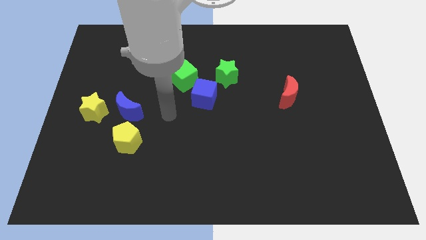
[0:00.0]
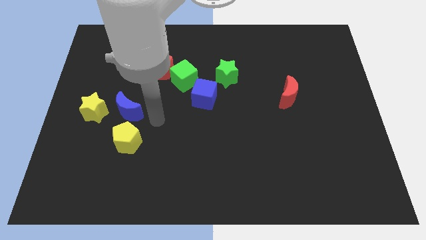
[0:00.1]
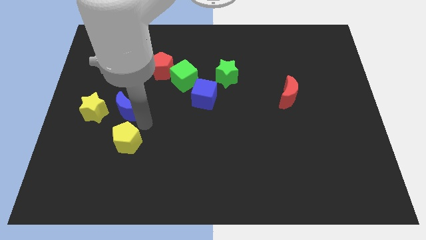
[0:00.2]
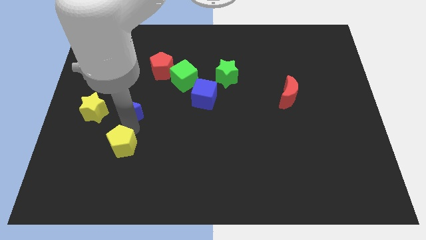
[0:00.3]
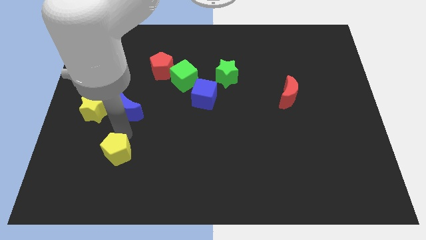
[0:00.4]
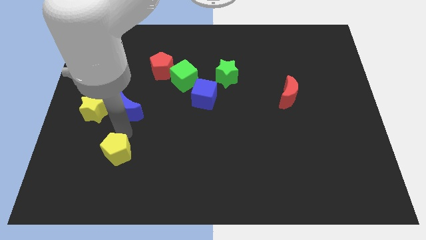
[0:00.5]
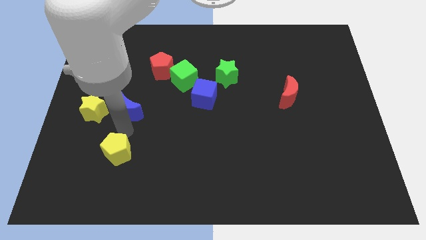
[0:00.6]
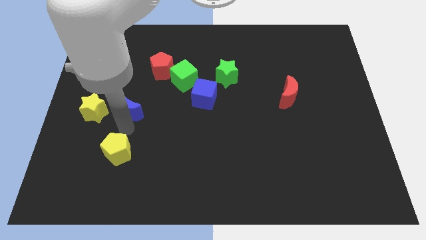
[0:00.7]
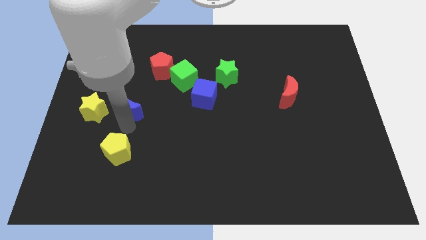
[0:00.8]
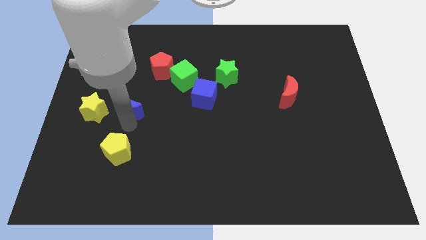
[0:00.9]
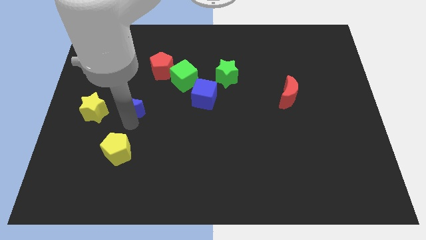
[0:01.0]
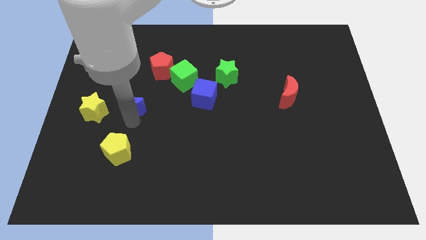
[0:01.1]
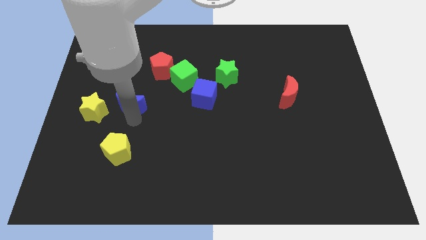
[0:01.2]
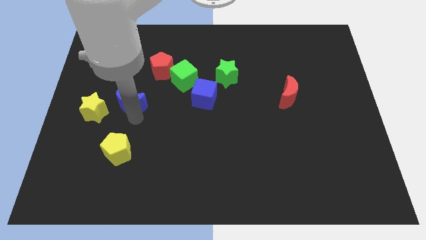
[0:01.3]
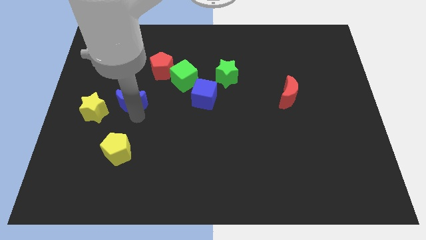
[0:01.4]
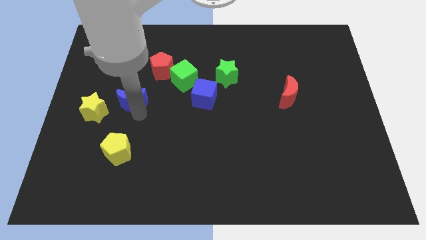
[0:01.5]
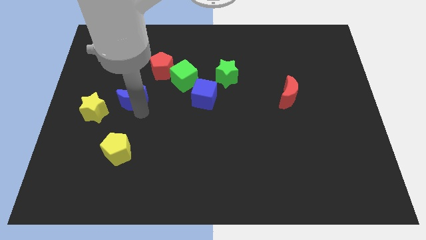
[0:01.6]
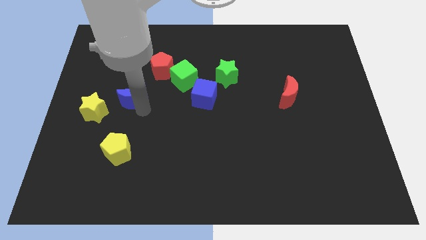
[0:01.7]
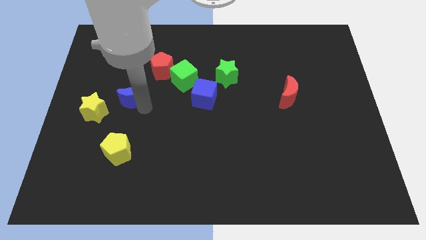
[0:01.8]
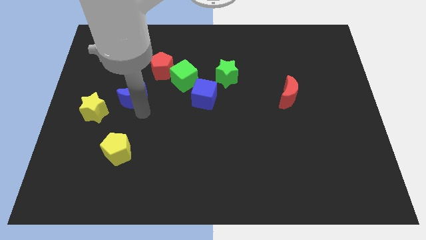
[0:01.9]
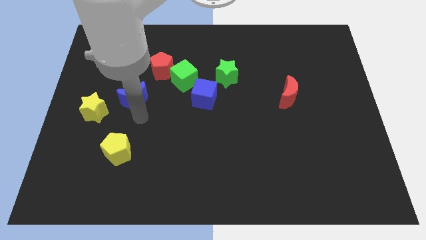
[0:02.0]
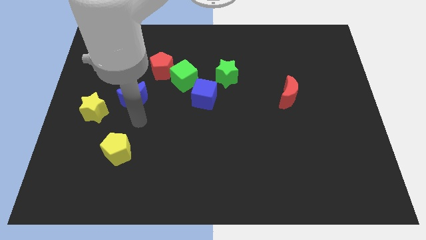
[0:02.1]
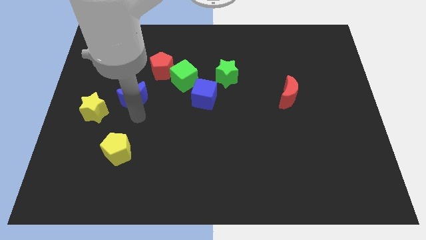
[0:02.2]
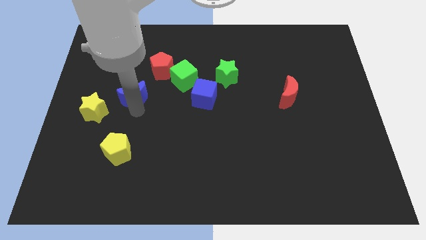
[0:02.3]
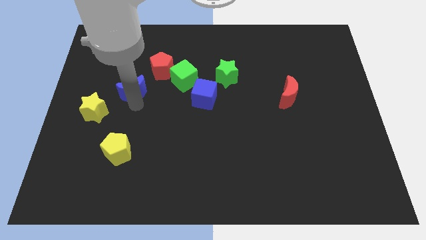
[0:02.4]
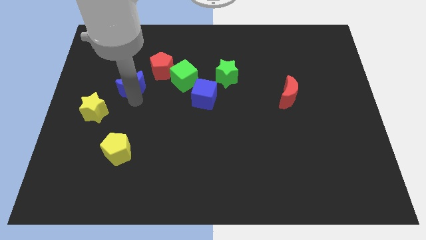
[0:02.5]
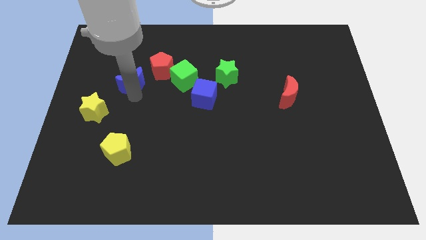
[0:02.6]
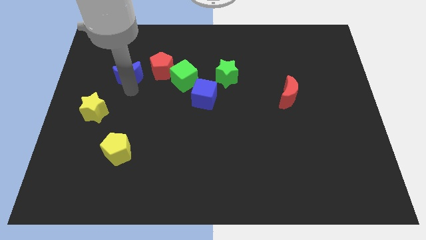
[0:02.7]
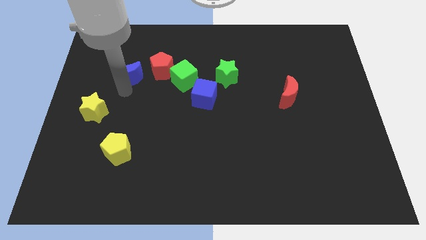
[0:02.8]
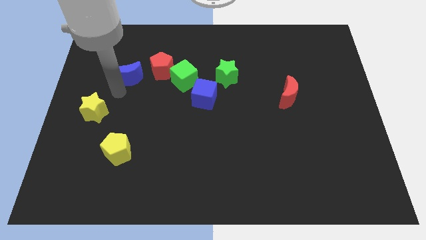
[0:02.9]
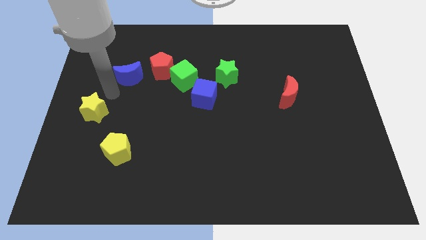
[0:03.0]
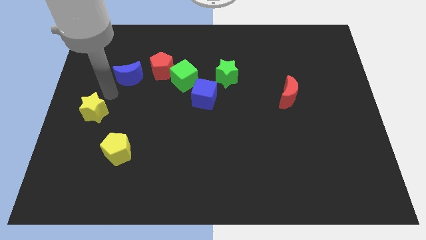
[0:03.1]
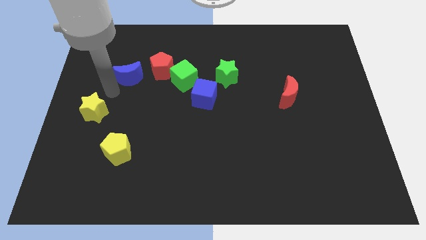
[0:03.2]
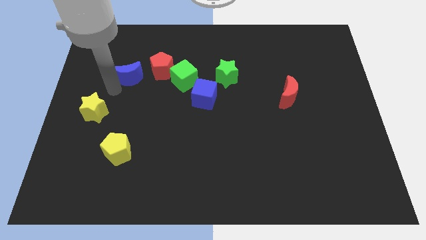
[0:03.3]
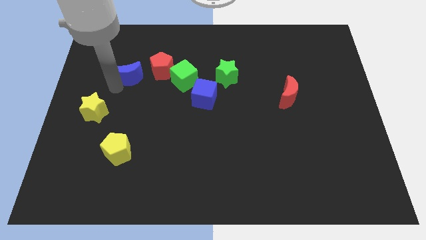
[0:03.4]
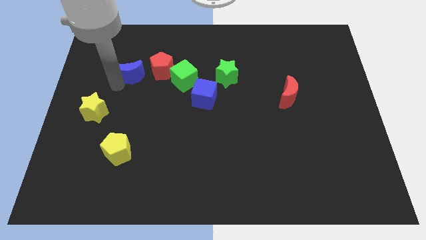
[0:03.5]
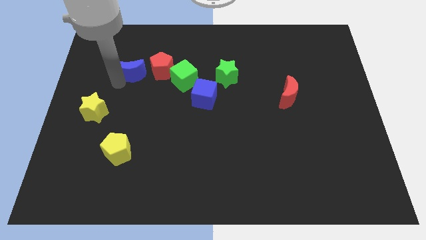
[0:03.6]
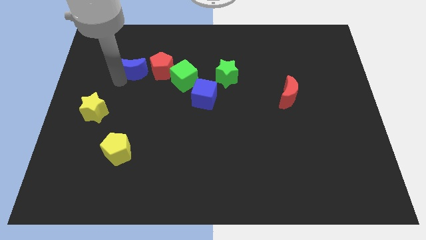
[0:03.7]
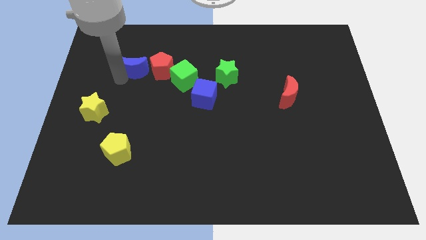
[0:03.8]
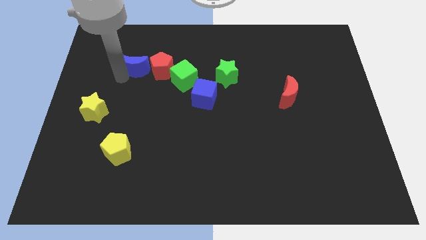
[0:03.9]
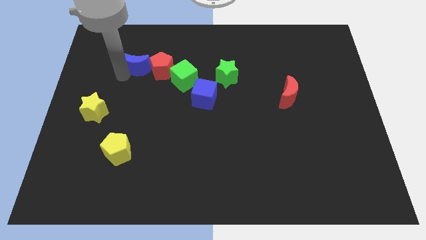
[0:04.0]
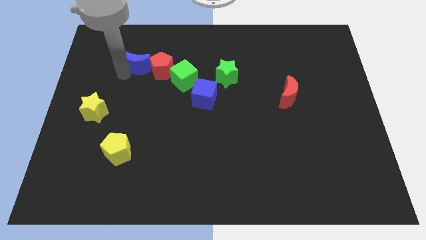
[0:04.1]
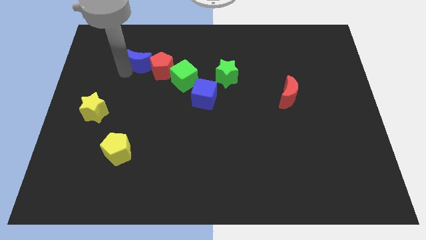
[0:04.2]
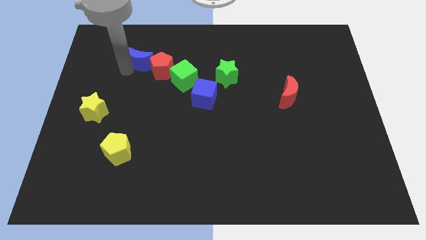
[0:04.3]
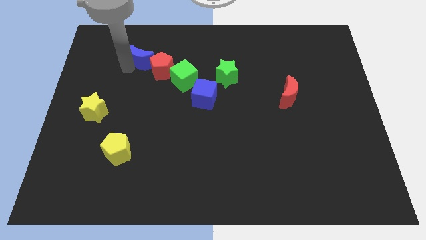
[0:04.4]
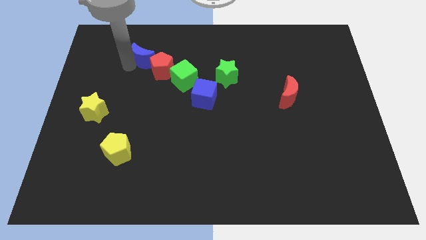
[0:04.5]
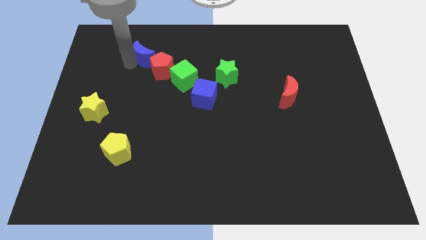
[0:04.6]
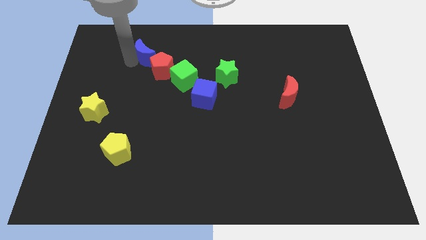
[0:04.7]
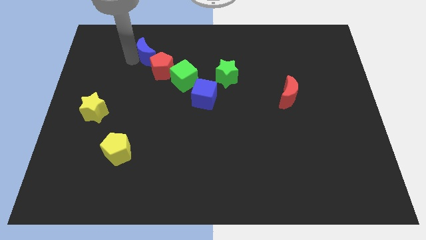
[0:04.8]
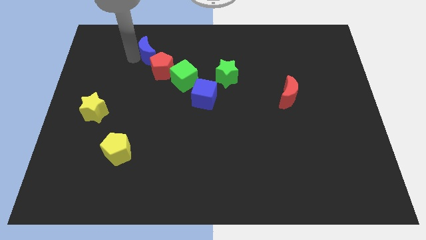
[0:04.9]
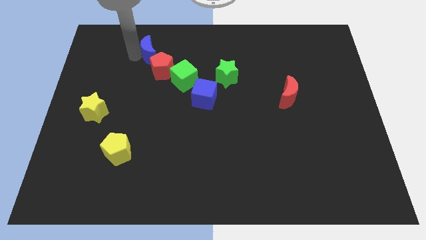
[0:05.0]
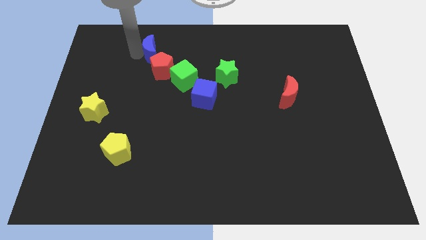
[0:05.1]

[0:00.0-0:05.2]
move the blue moon to the top left of the green cube

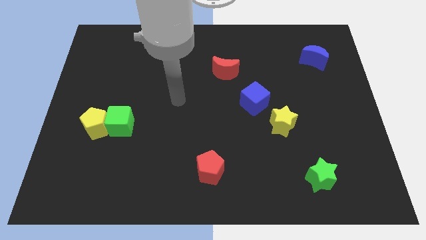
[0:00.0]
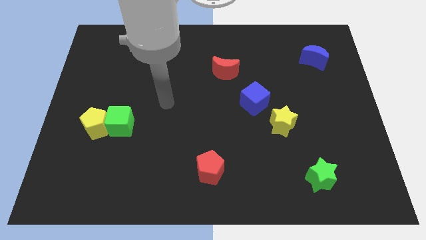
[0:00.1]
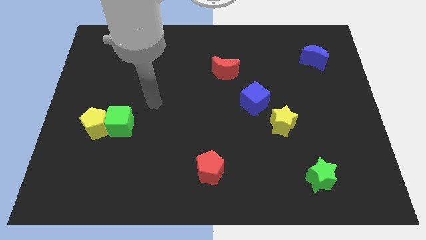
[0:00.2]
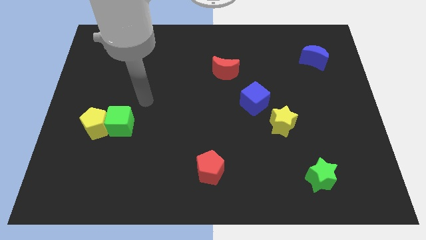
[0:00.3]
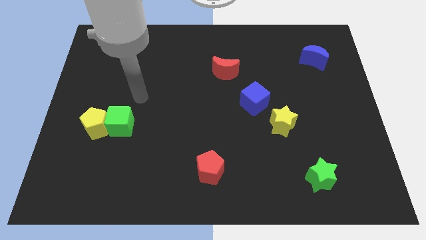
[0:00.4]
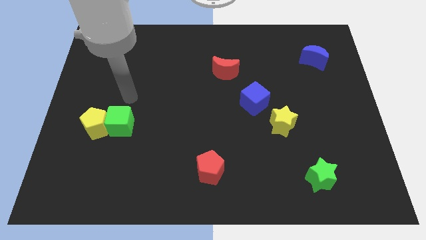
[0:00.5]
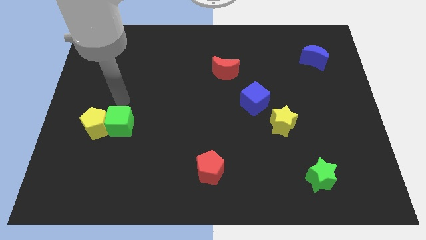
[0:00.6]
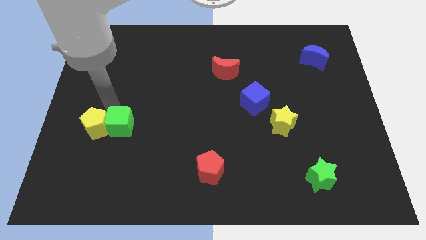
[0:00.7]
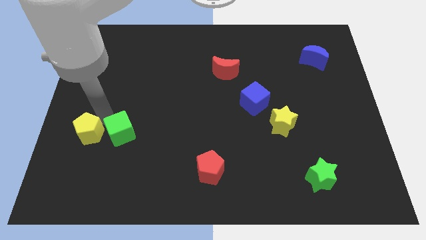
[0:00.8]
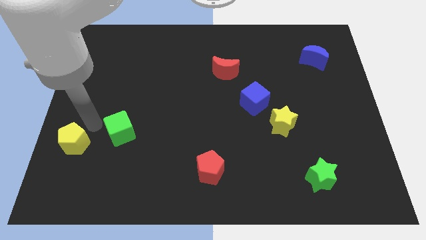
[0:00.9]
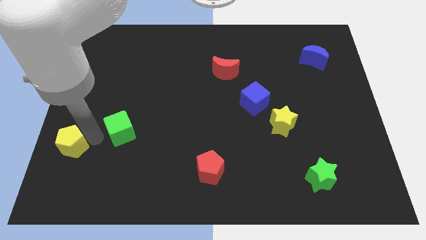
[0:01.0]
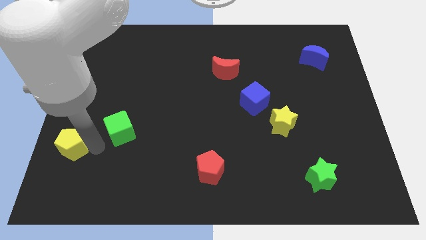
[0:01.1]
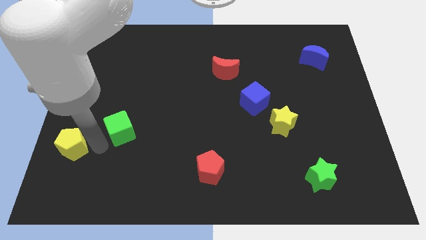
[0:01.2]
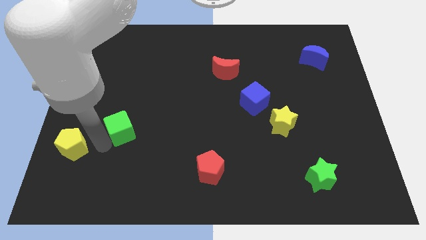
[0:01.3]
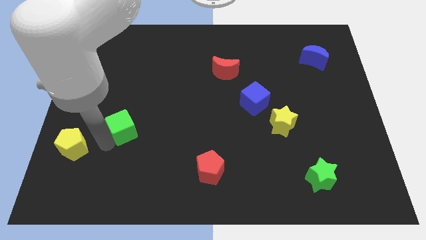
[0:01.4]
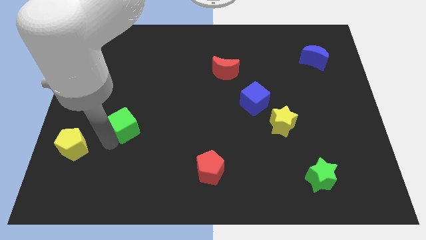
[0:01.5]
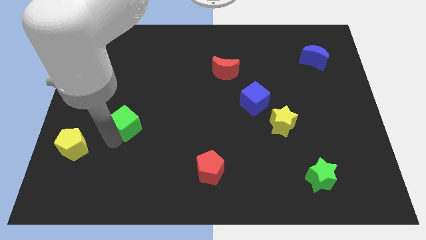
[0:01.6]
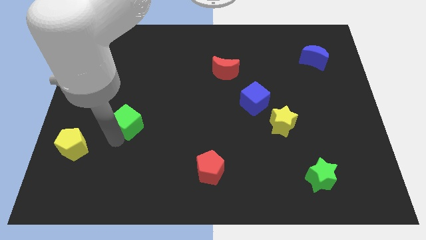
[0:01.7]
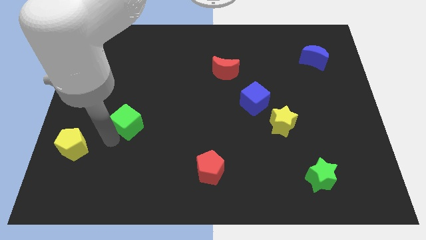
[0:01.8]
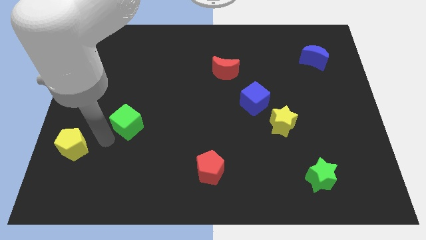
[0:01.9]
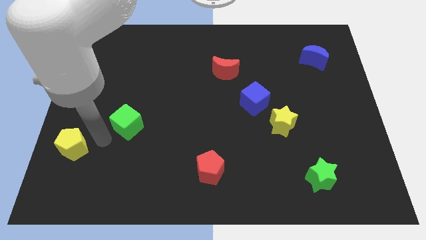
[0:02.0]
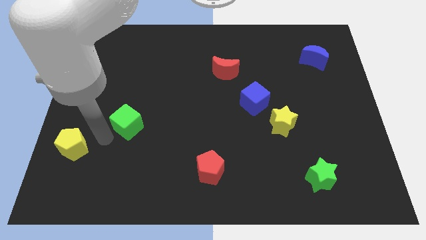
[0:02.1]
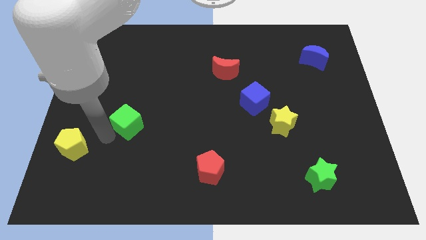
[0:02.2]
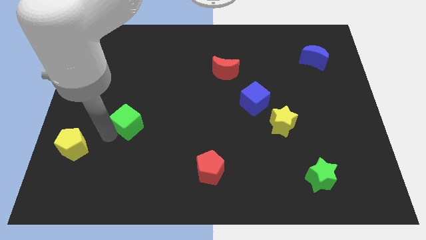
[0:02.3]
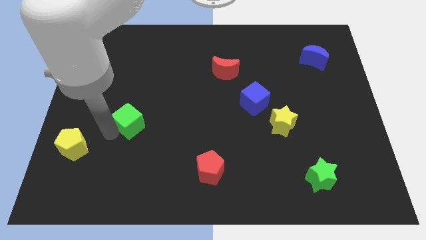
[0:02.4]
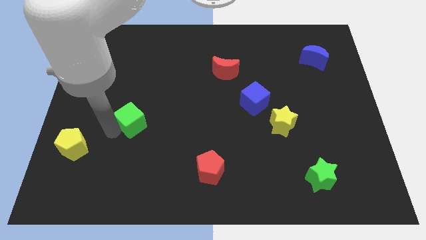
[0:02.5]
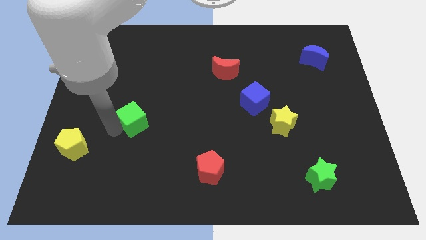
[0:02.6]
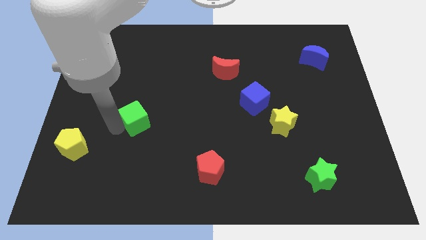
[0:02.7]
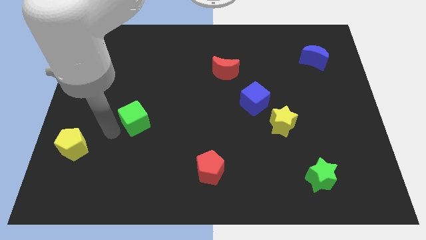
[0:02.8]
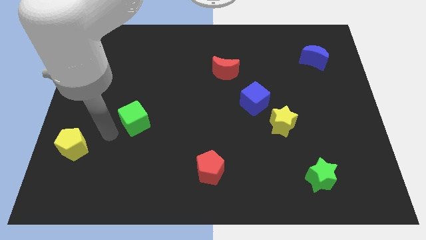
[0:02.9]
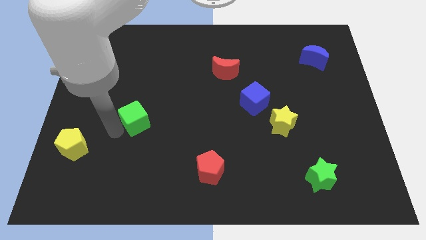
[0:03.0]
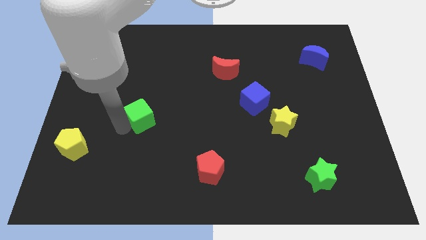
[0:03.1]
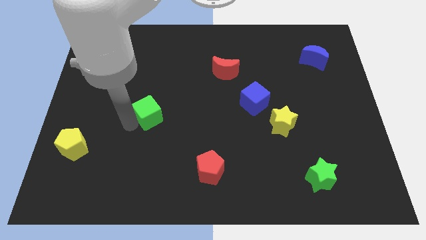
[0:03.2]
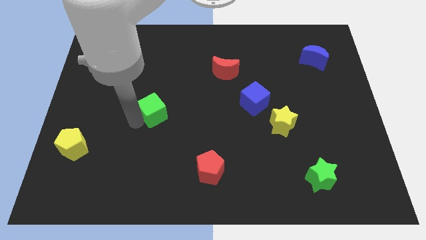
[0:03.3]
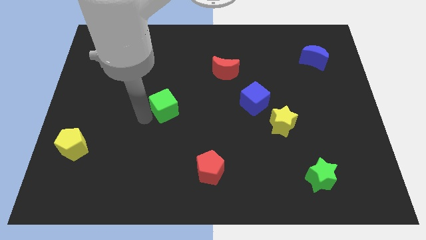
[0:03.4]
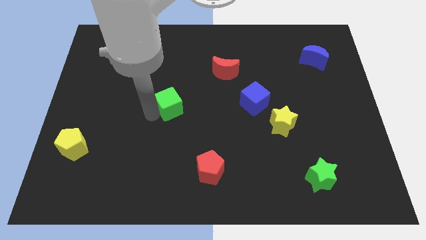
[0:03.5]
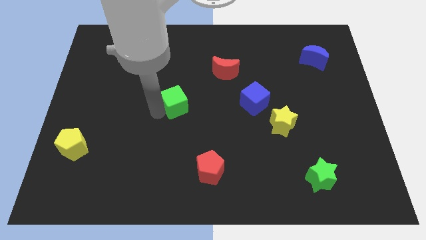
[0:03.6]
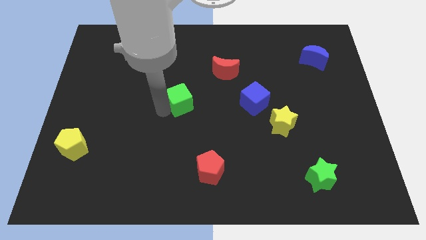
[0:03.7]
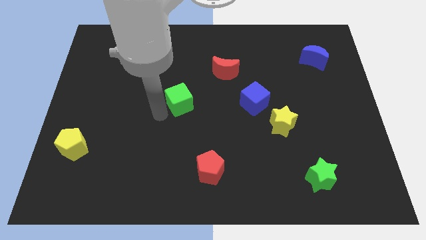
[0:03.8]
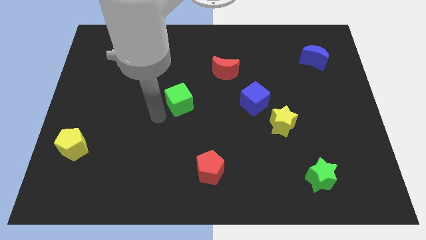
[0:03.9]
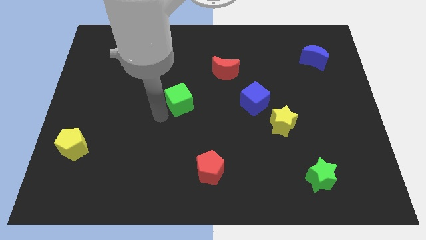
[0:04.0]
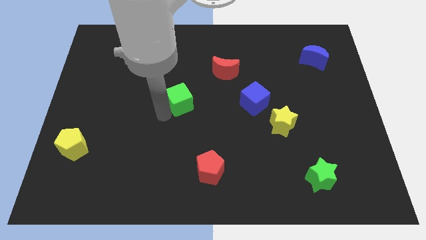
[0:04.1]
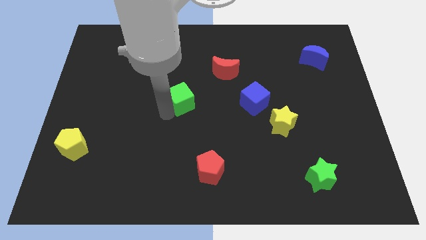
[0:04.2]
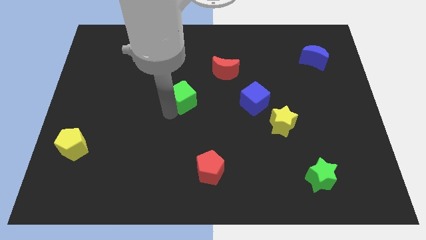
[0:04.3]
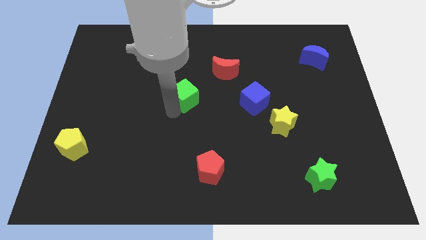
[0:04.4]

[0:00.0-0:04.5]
put the green cube to the bottom left side of the red moon
